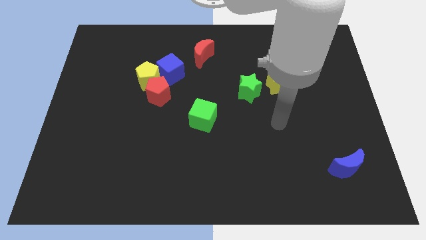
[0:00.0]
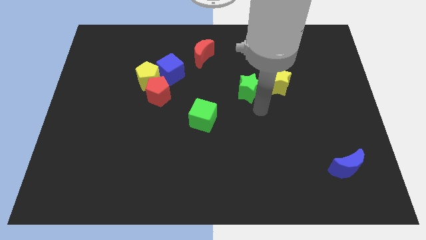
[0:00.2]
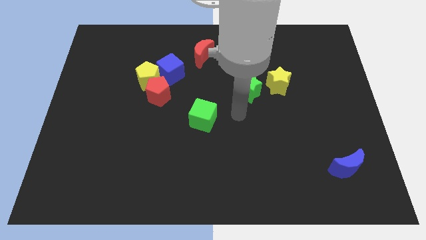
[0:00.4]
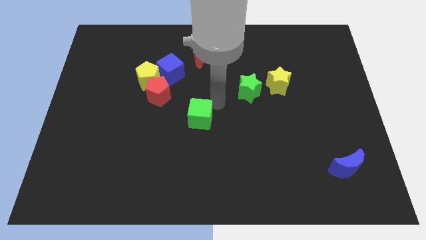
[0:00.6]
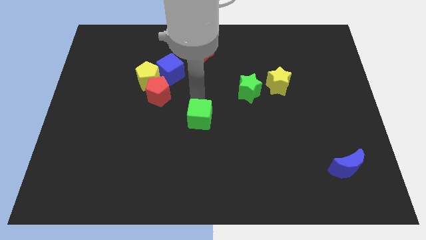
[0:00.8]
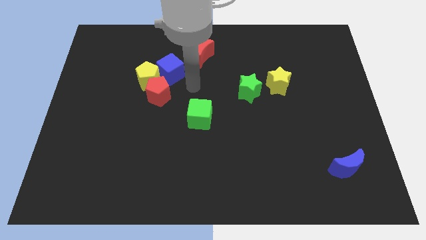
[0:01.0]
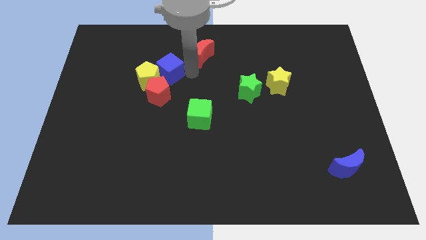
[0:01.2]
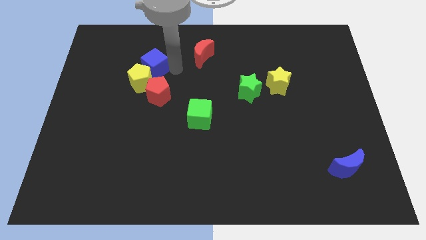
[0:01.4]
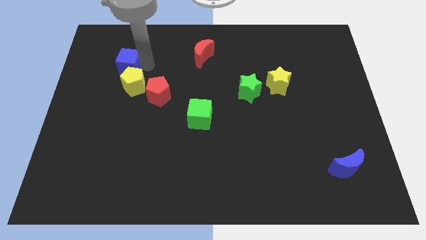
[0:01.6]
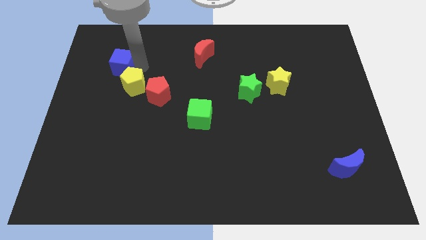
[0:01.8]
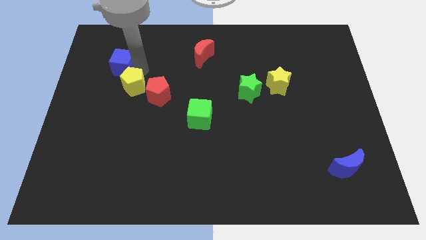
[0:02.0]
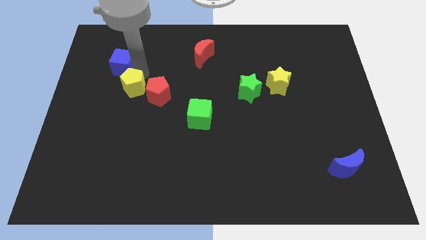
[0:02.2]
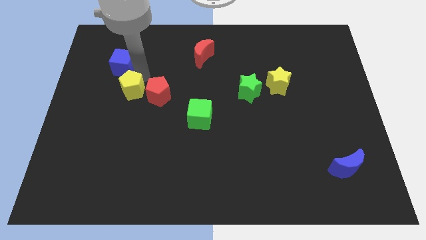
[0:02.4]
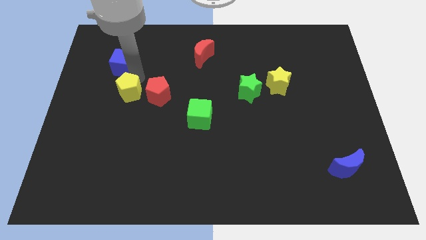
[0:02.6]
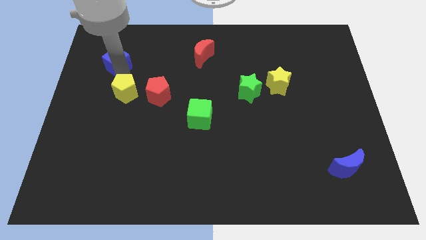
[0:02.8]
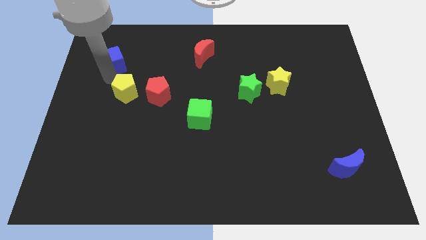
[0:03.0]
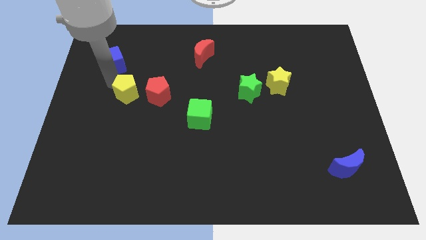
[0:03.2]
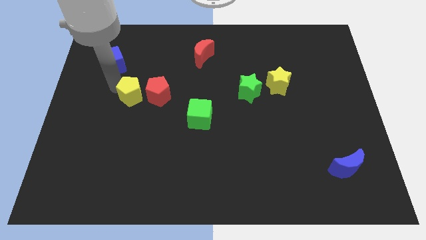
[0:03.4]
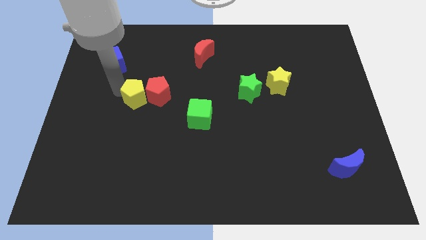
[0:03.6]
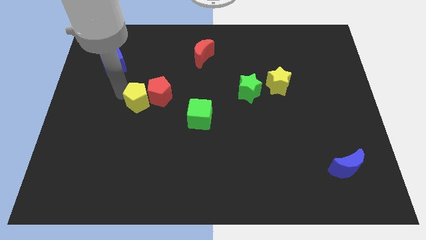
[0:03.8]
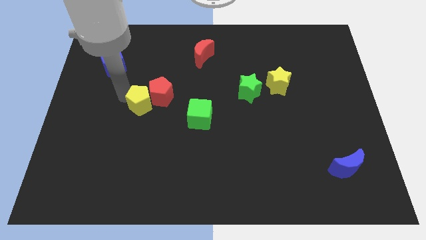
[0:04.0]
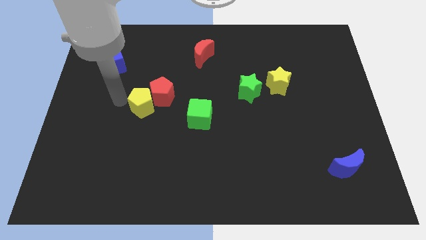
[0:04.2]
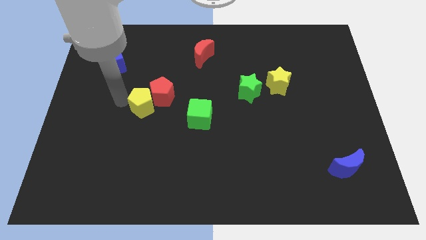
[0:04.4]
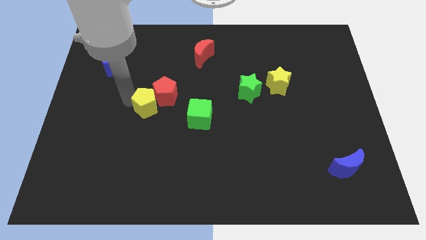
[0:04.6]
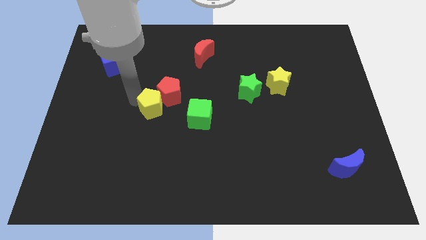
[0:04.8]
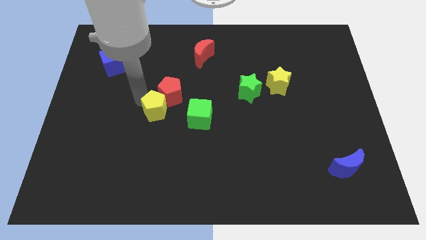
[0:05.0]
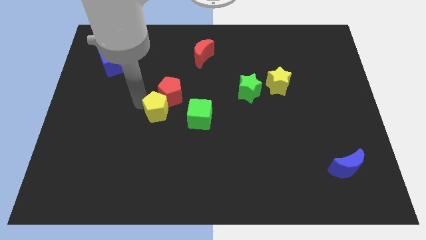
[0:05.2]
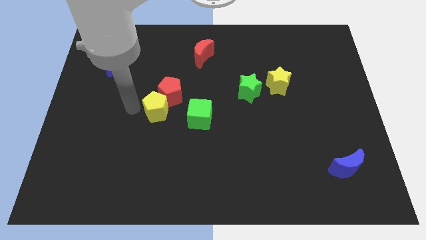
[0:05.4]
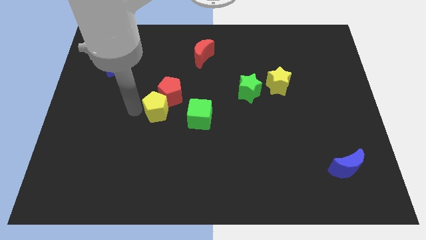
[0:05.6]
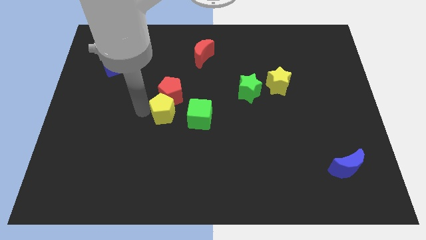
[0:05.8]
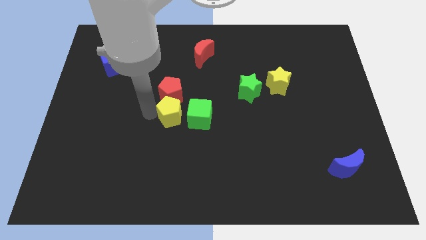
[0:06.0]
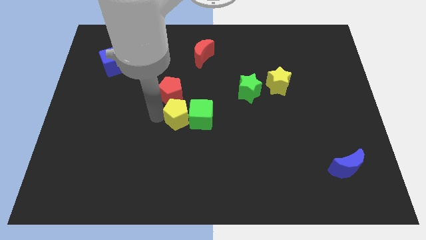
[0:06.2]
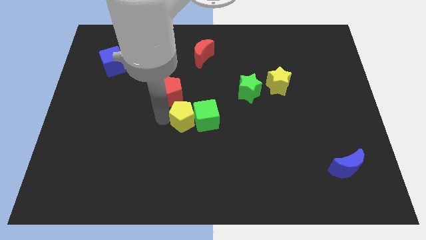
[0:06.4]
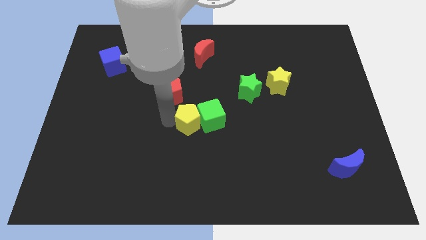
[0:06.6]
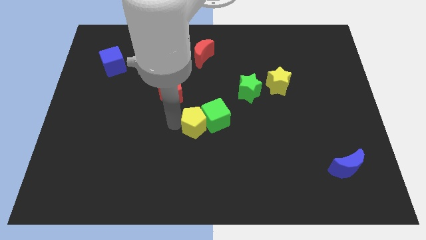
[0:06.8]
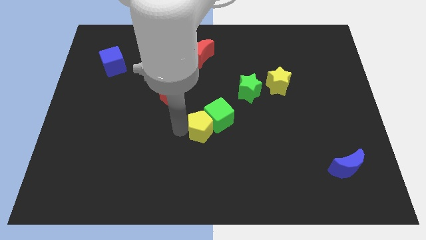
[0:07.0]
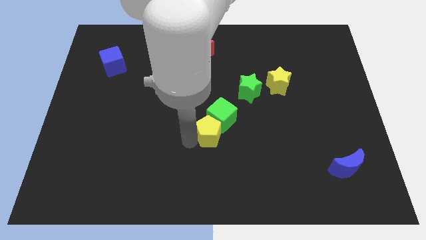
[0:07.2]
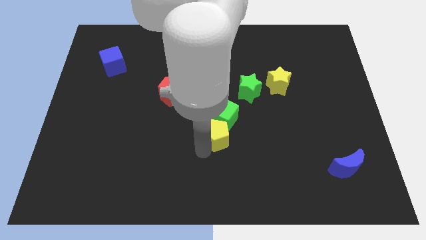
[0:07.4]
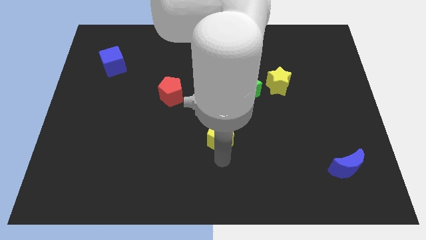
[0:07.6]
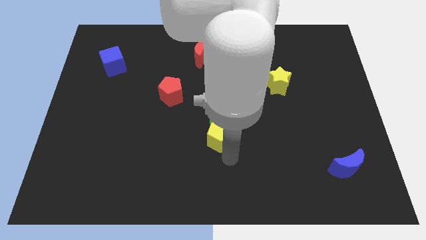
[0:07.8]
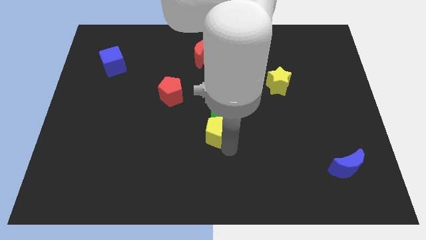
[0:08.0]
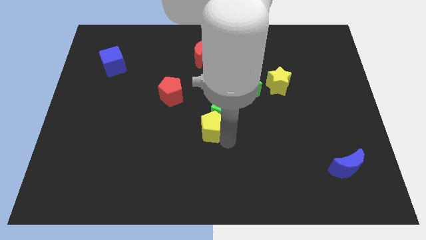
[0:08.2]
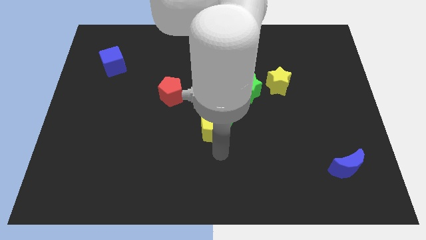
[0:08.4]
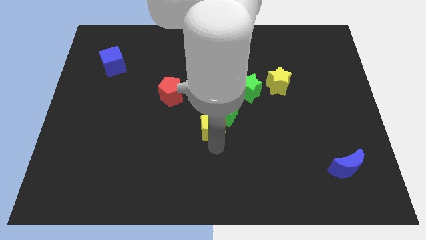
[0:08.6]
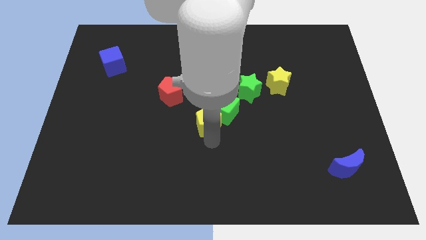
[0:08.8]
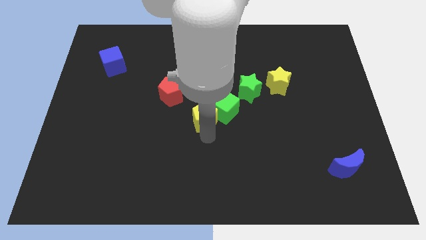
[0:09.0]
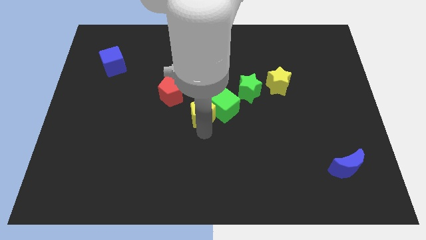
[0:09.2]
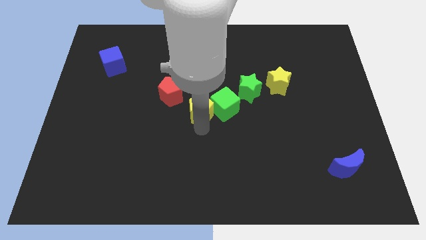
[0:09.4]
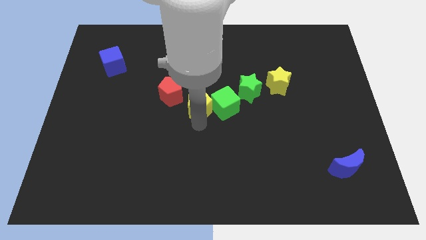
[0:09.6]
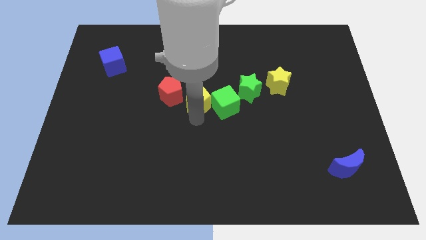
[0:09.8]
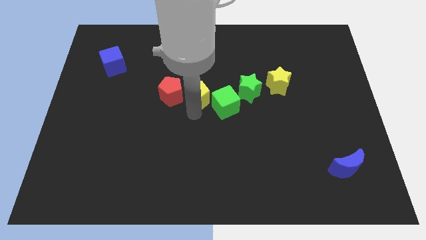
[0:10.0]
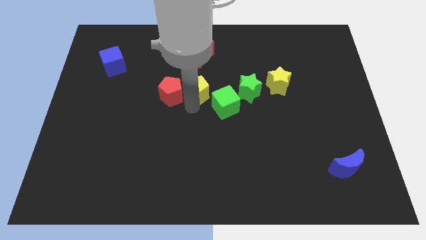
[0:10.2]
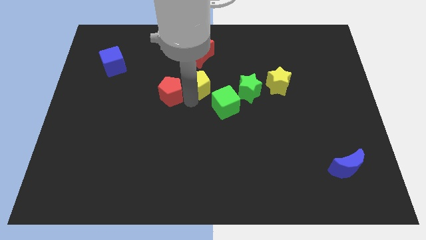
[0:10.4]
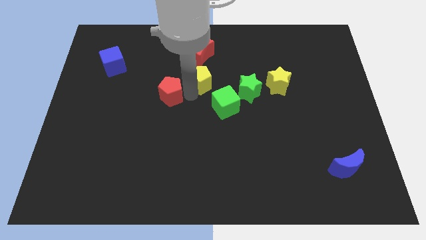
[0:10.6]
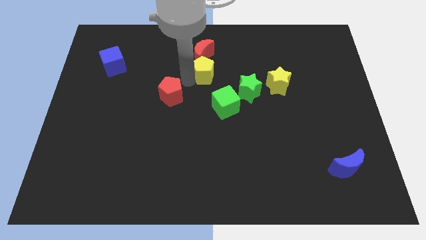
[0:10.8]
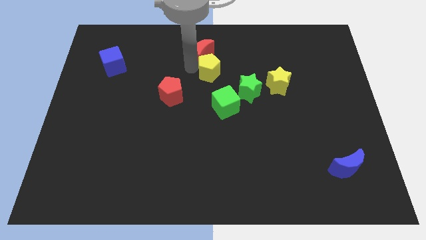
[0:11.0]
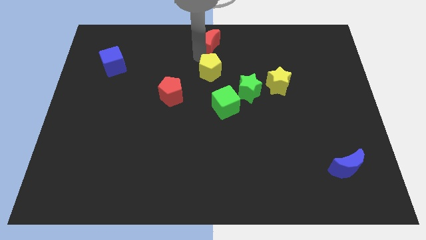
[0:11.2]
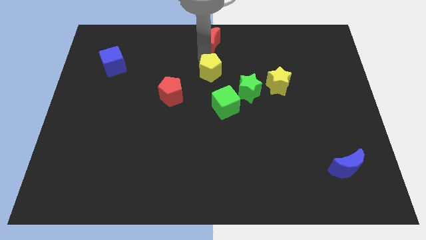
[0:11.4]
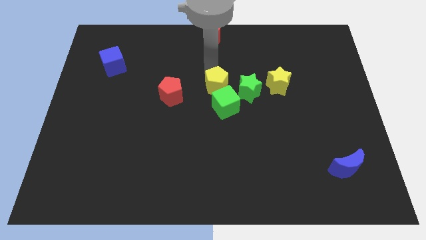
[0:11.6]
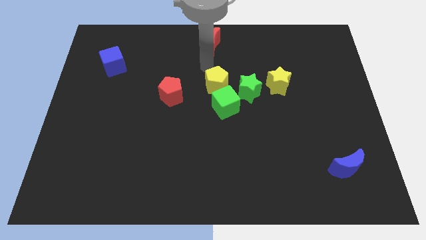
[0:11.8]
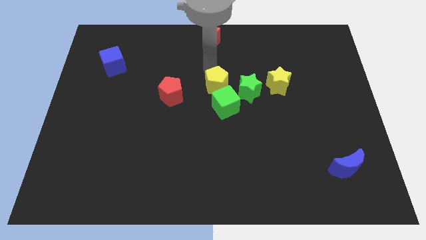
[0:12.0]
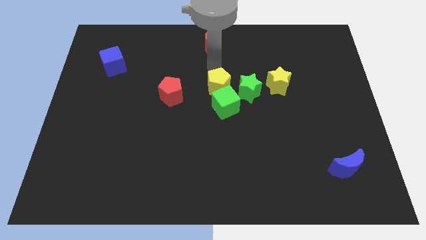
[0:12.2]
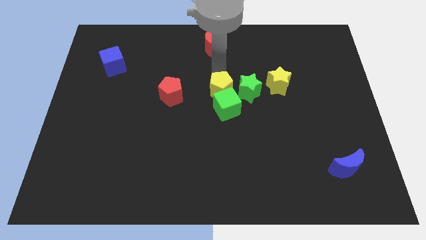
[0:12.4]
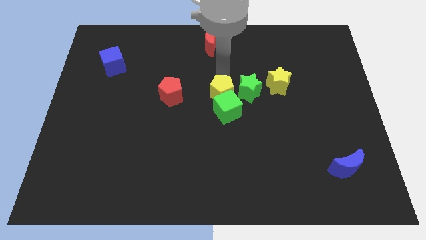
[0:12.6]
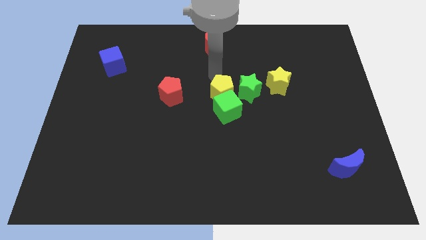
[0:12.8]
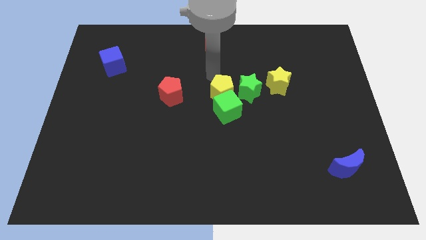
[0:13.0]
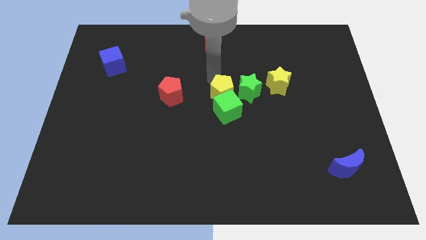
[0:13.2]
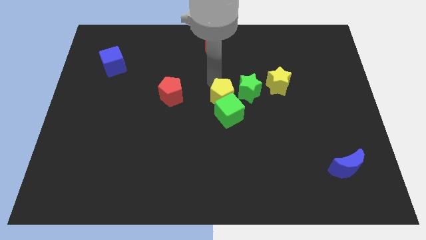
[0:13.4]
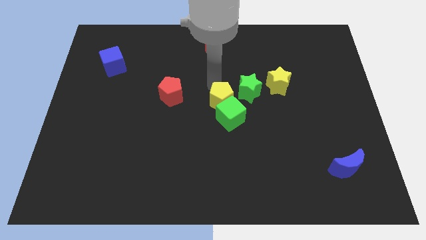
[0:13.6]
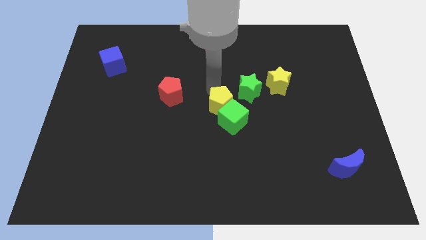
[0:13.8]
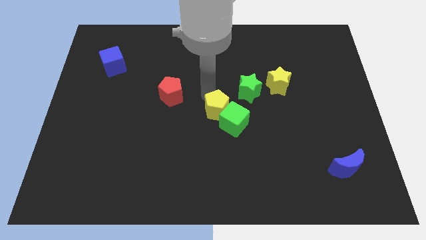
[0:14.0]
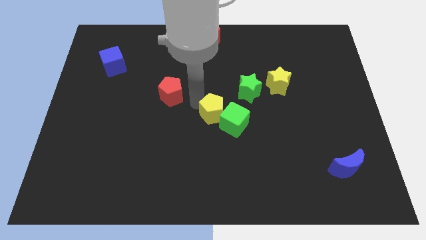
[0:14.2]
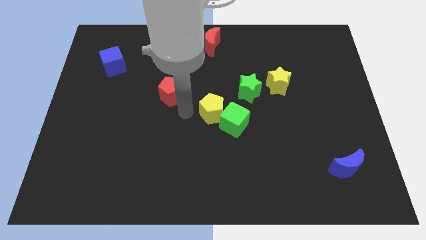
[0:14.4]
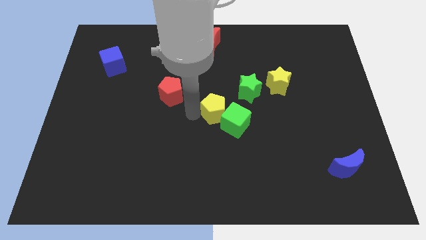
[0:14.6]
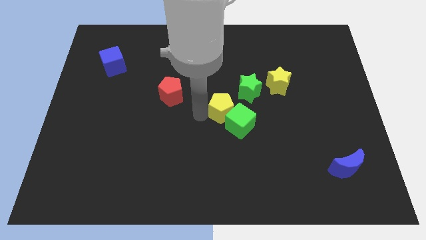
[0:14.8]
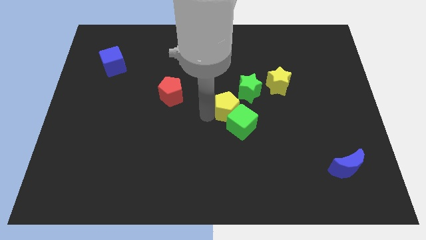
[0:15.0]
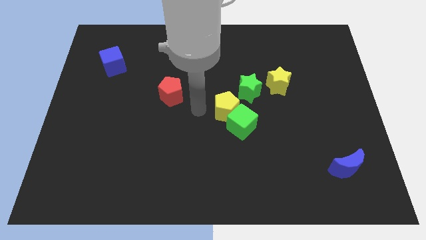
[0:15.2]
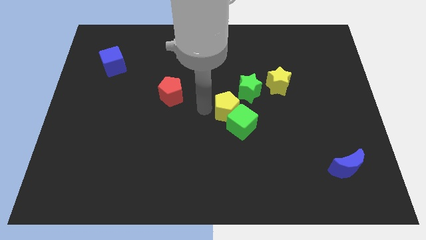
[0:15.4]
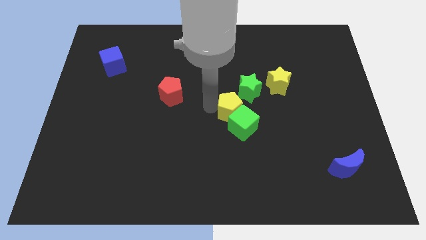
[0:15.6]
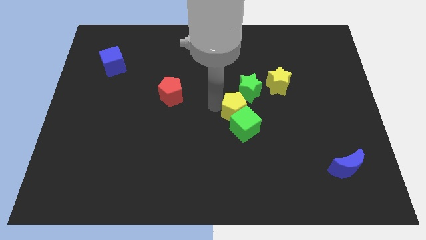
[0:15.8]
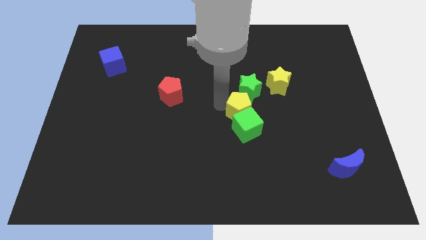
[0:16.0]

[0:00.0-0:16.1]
put the yellow pentagon diagonally down and to the left of the yellow star
